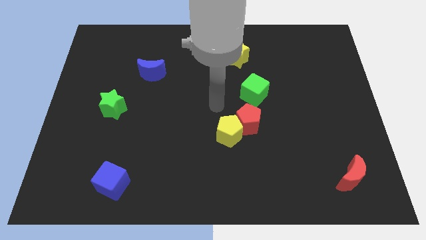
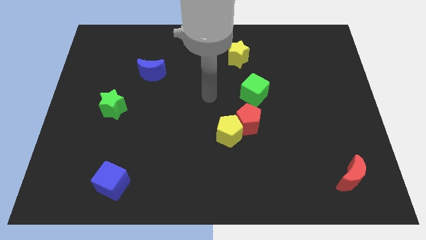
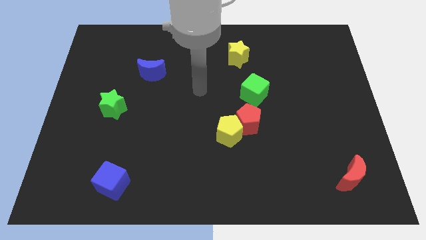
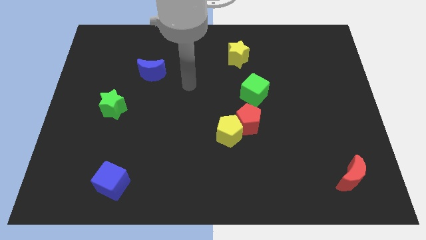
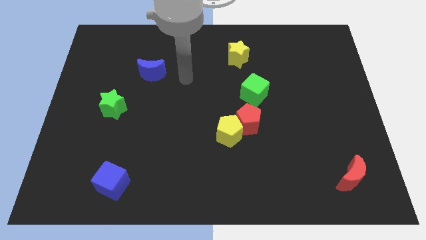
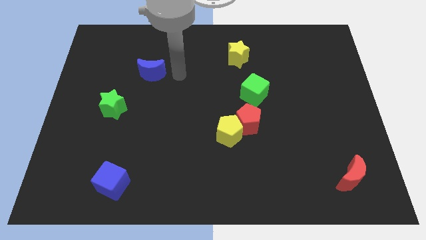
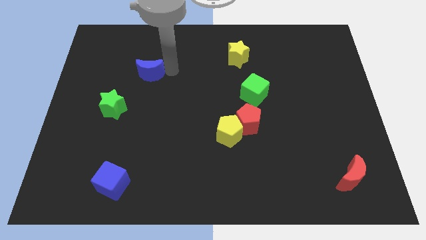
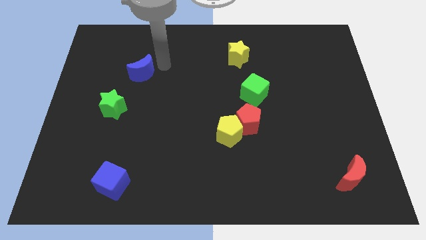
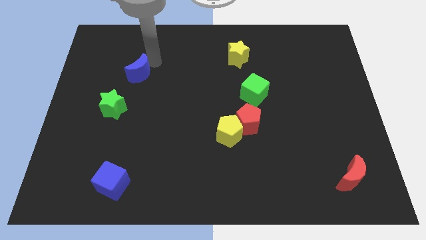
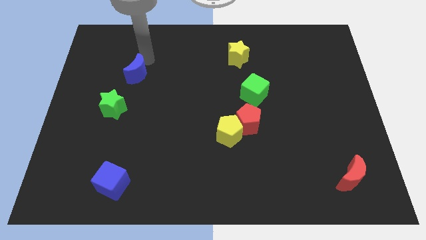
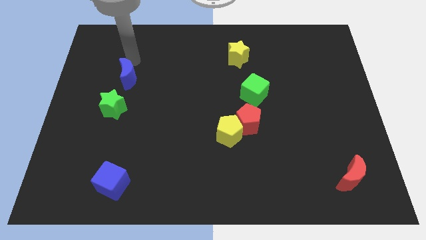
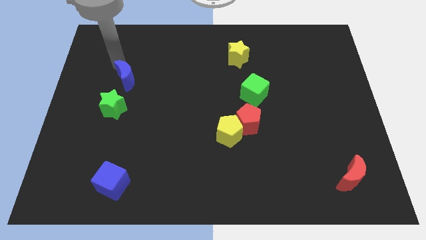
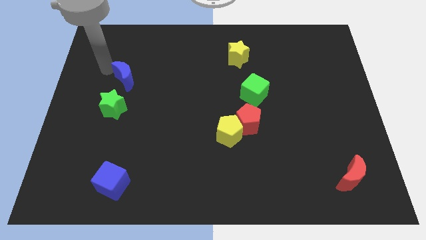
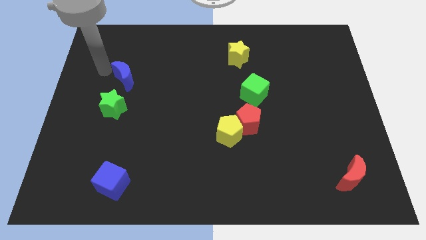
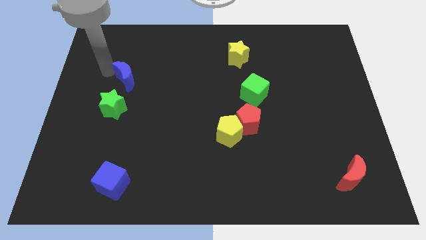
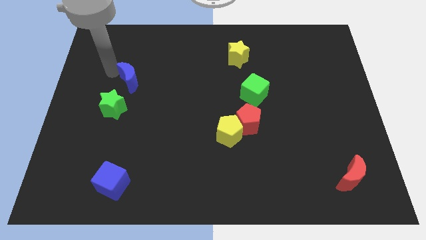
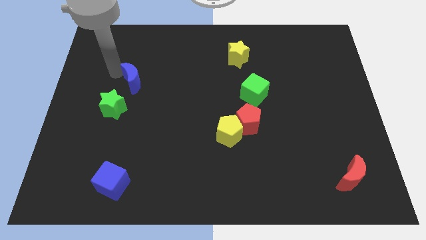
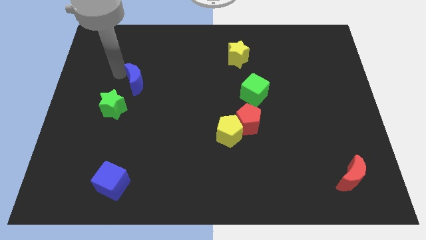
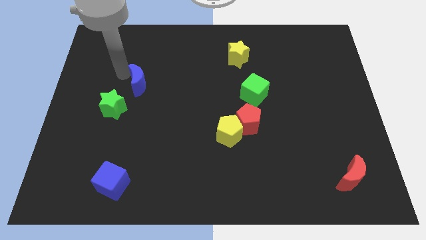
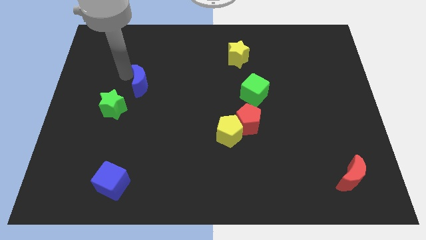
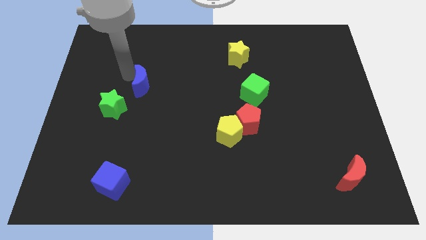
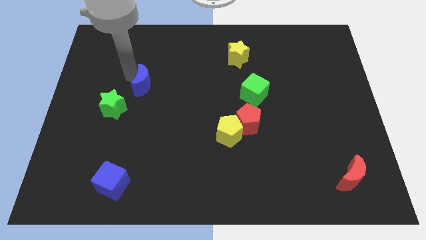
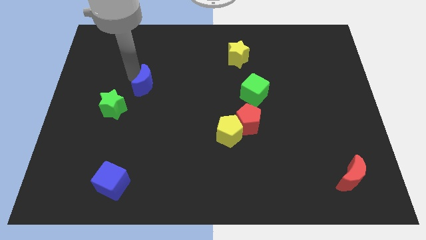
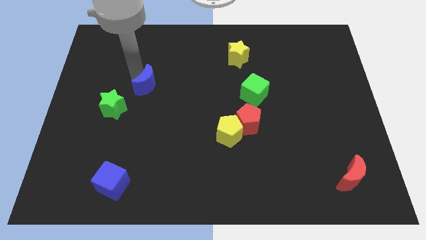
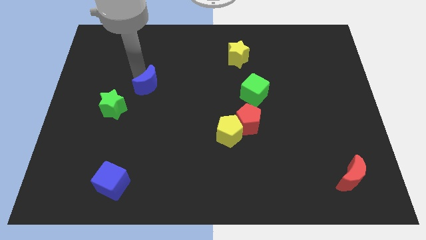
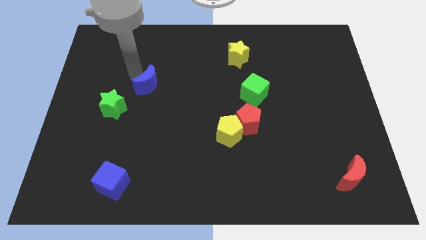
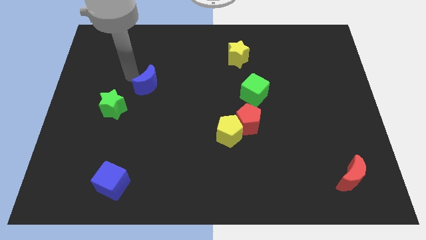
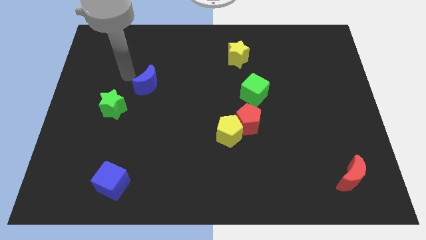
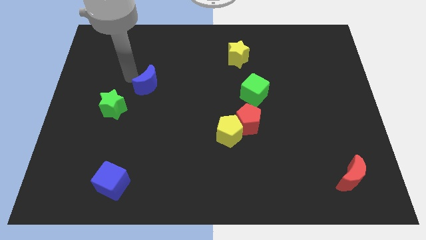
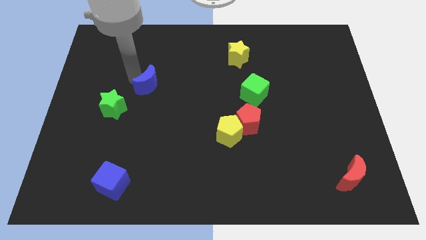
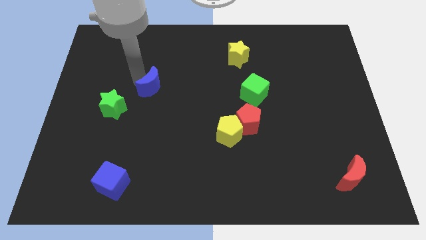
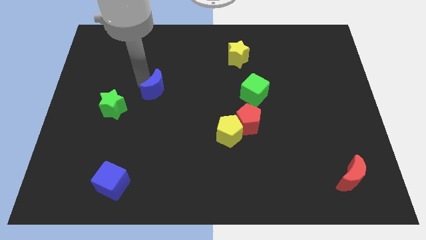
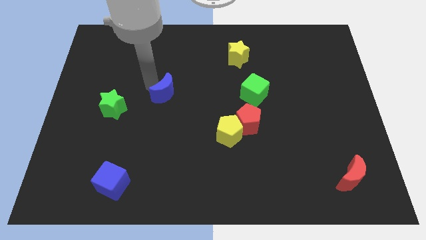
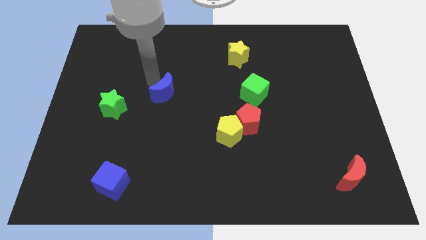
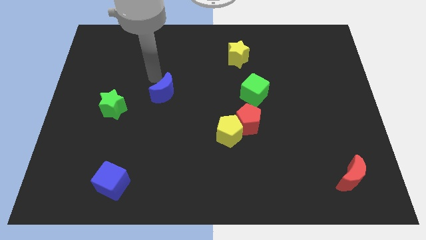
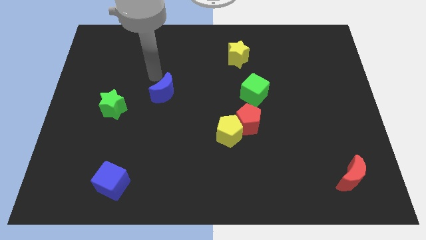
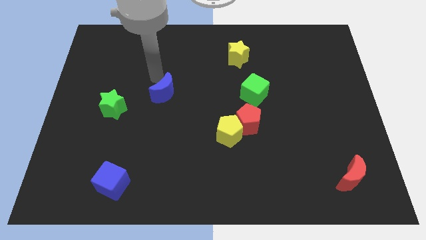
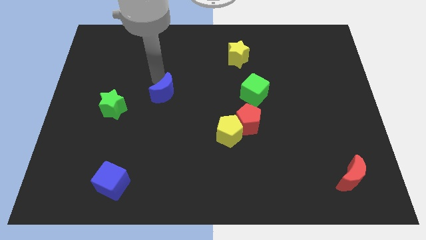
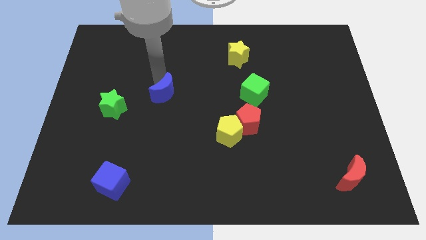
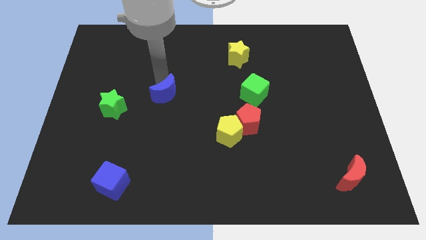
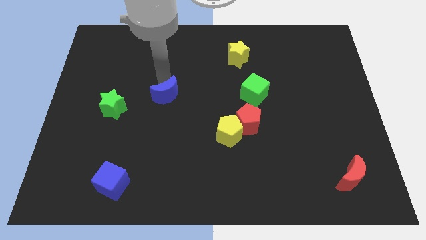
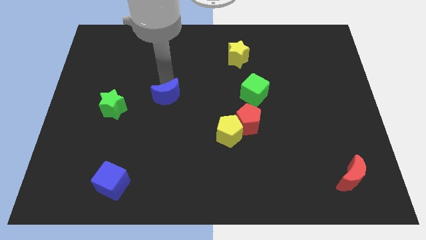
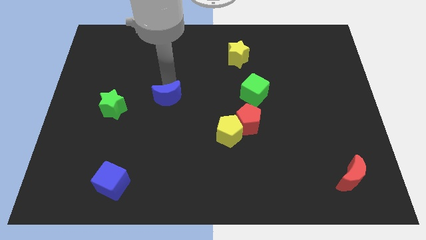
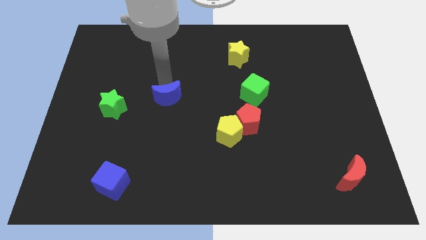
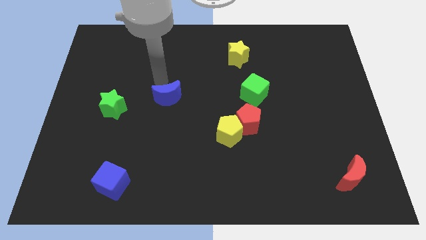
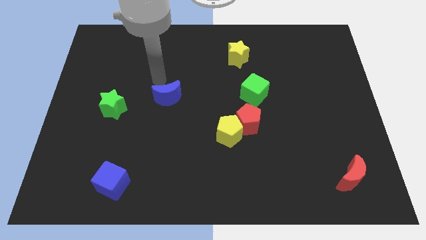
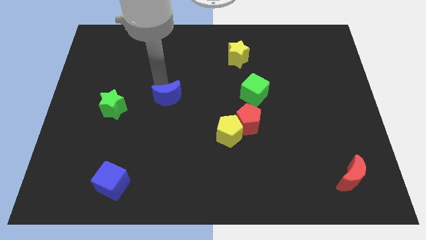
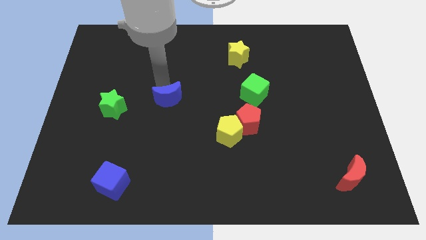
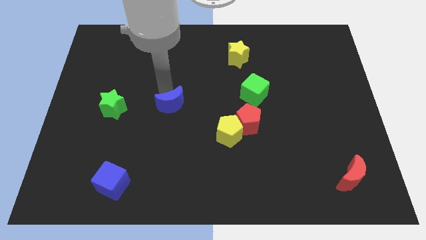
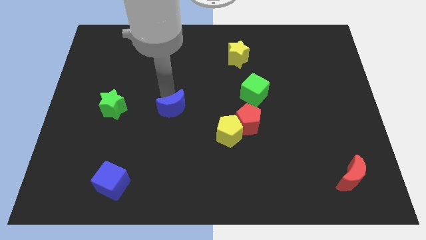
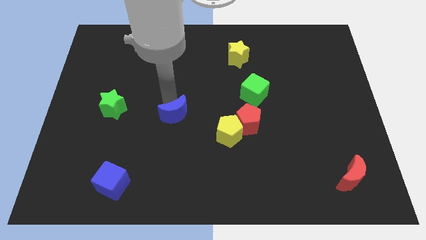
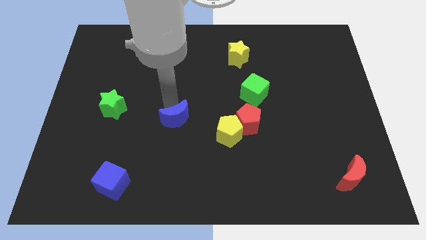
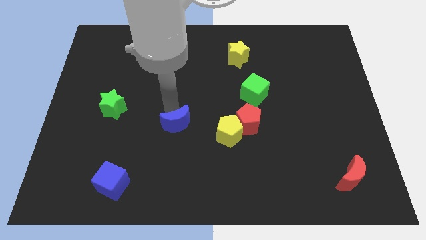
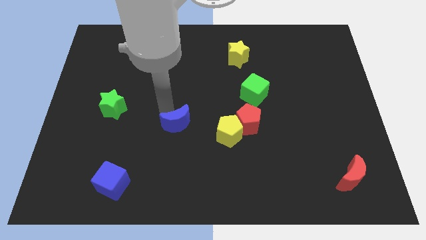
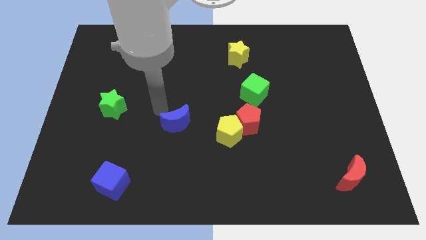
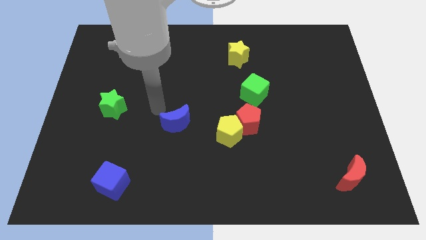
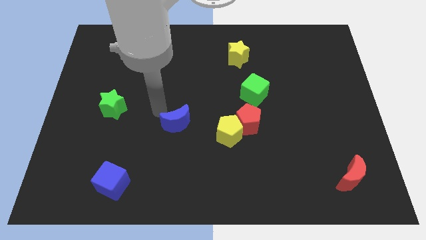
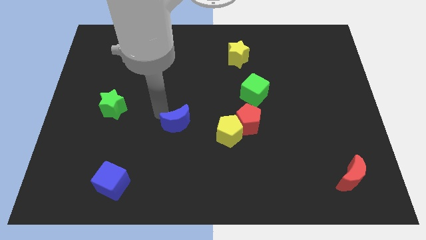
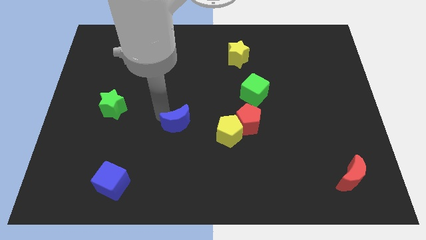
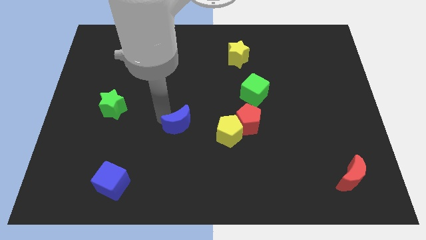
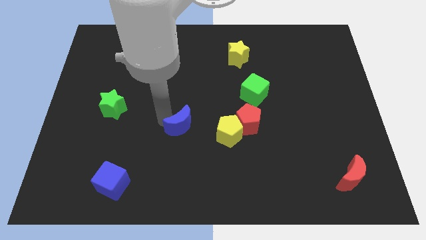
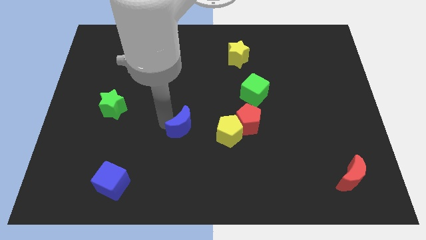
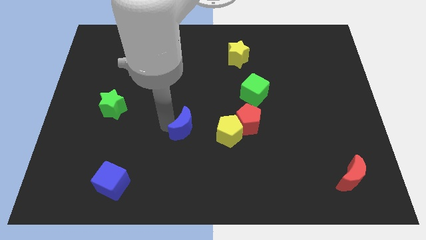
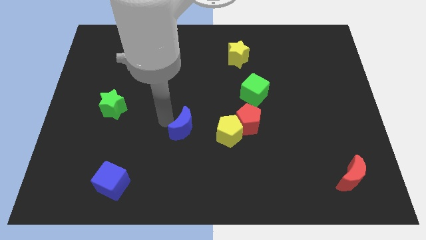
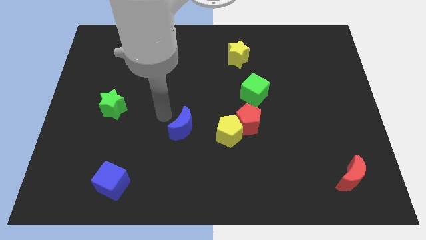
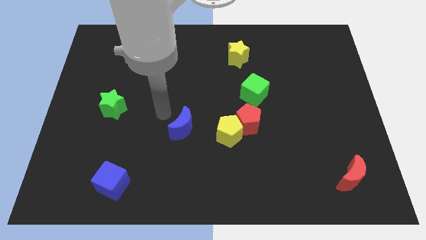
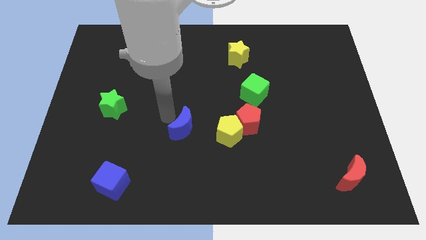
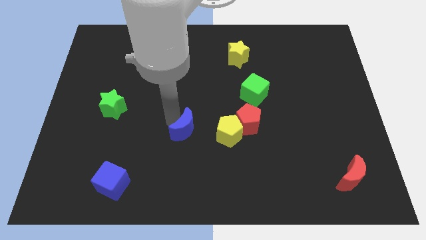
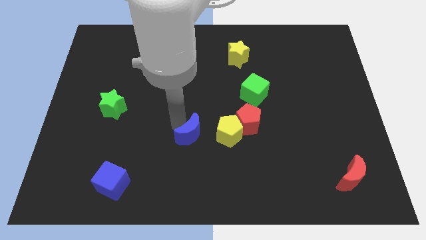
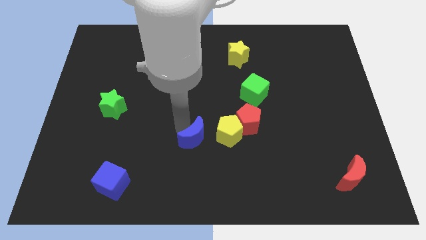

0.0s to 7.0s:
move the blue moon downwards and to the right diagonally

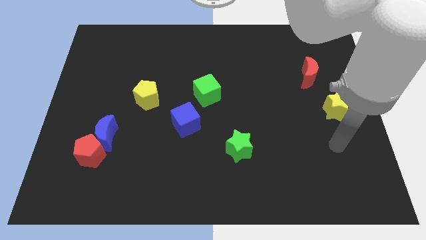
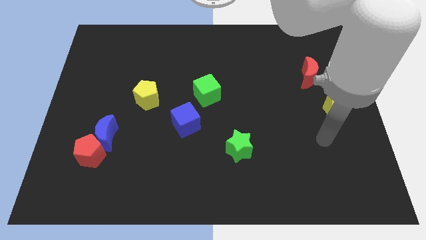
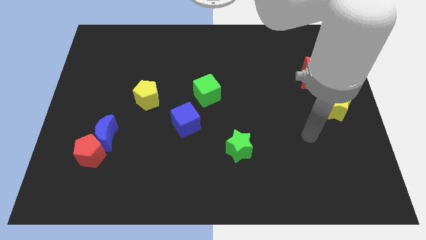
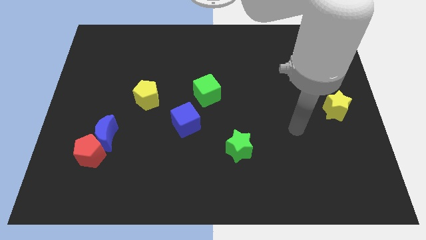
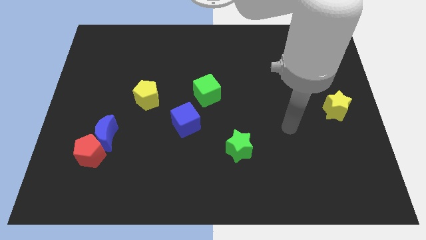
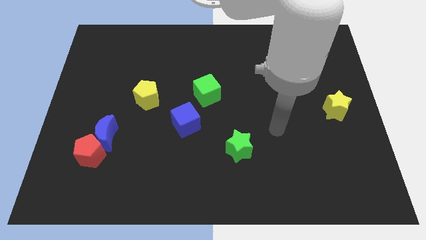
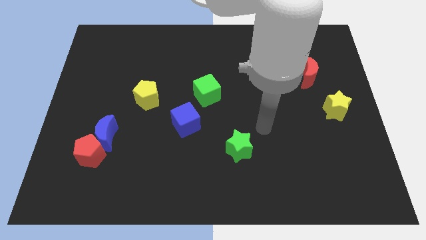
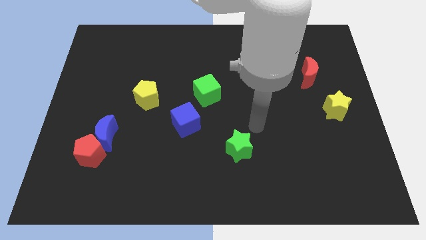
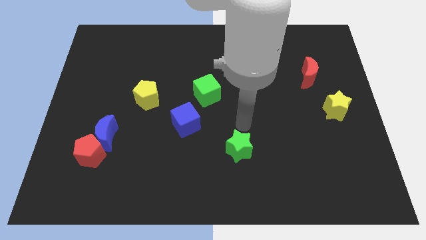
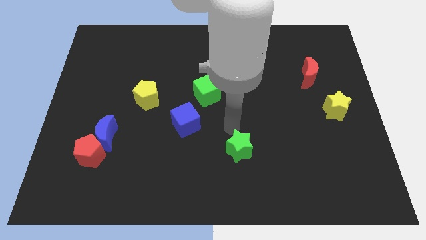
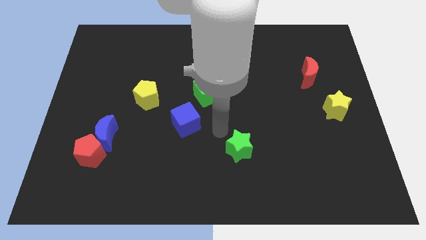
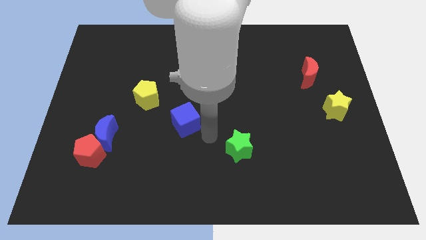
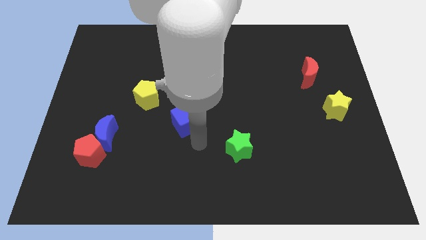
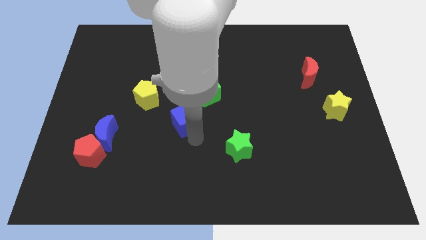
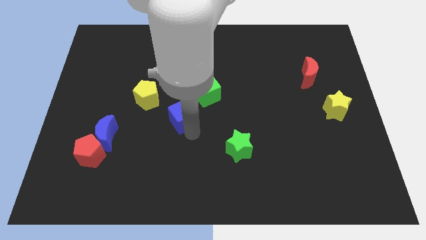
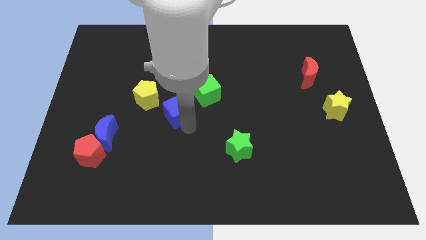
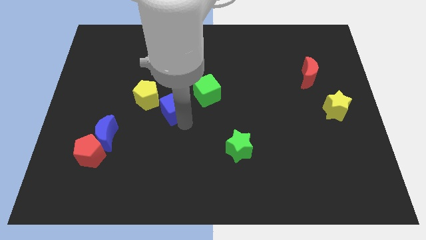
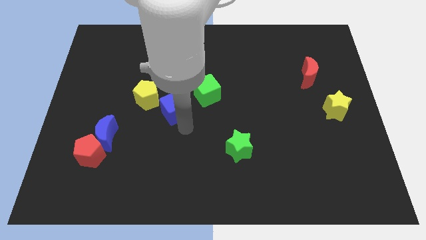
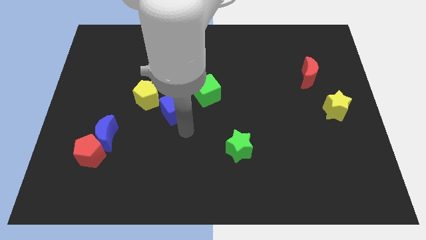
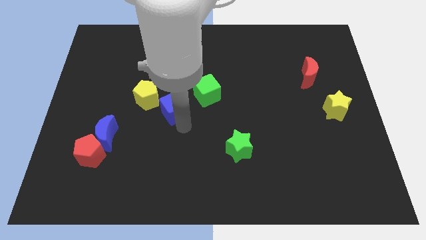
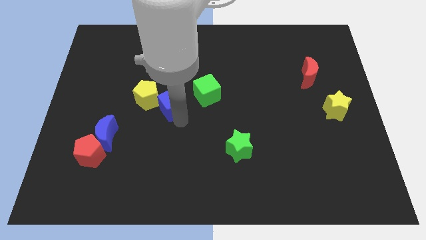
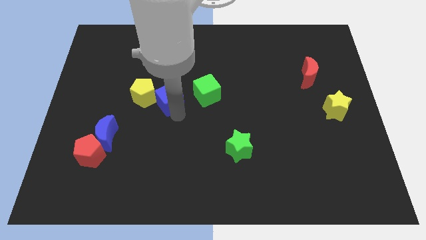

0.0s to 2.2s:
slightly move the blue cube up and then to the left
